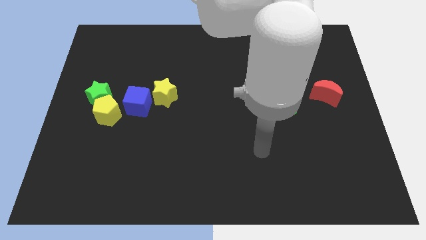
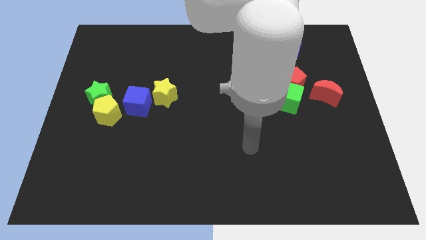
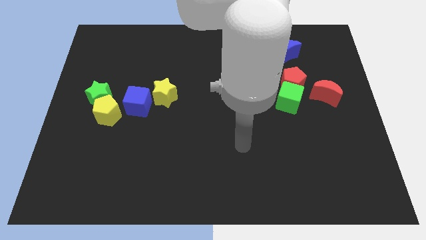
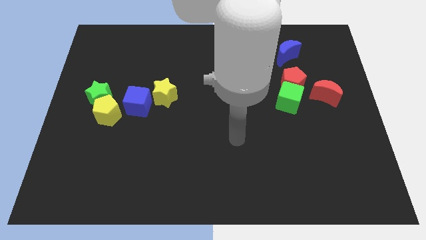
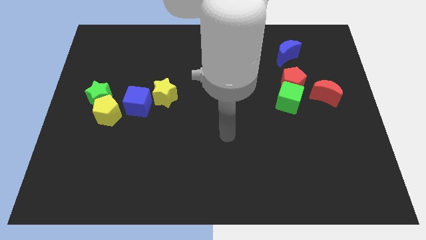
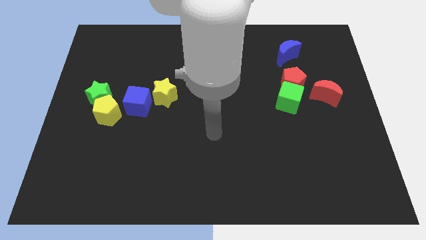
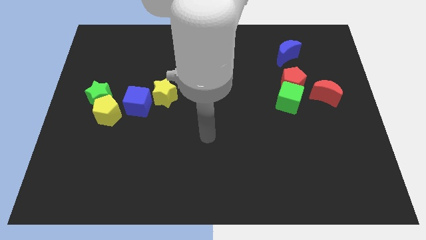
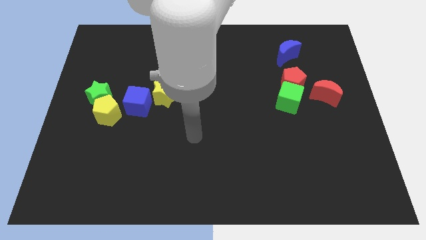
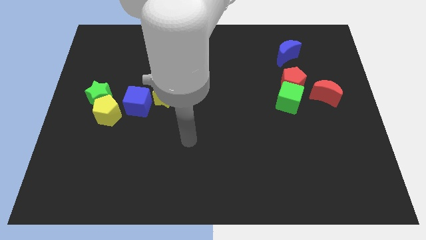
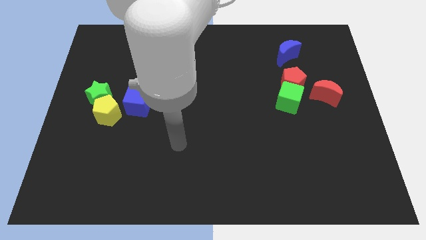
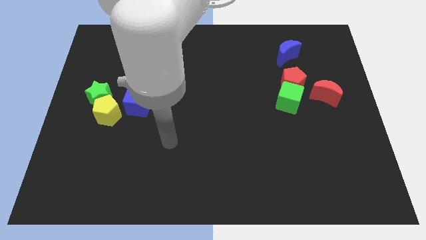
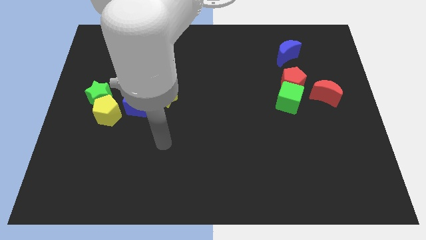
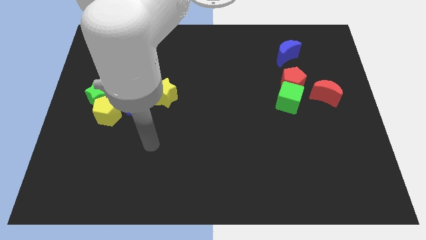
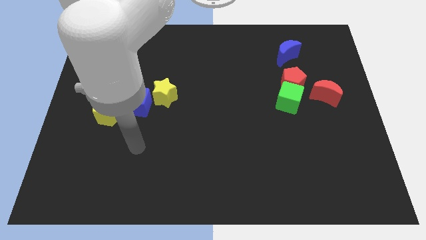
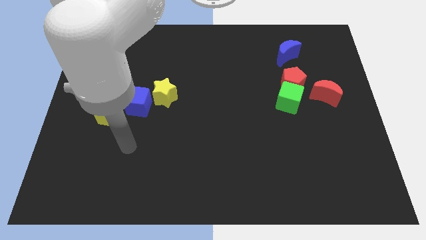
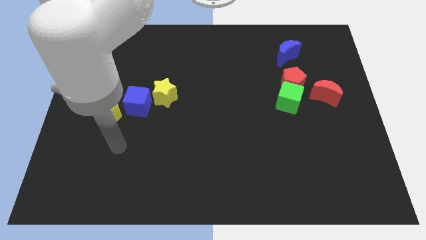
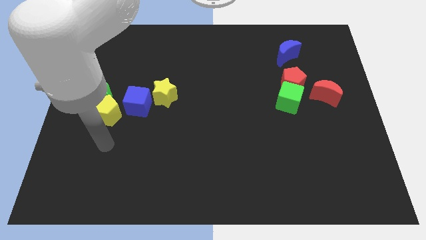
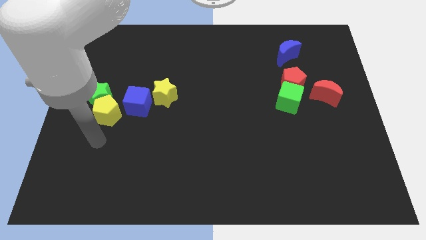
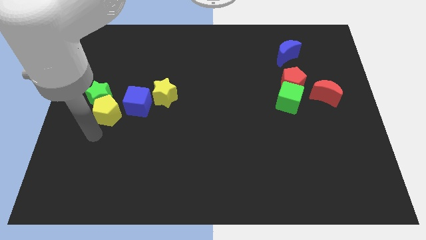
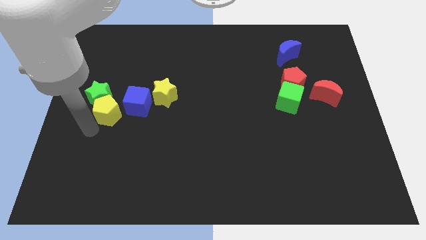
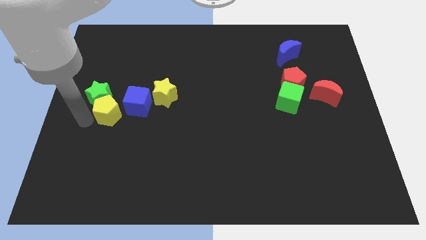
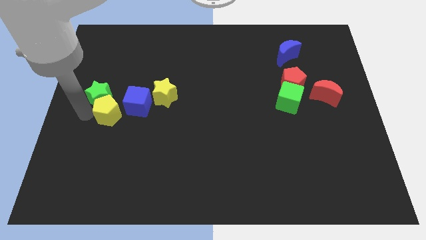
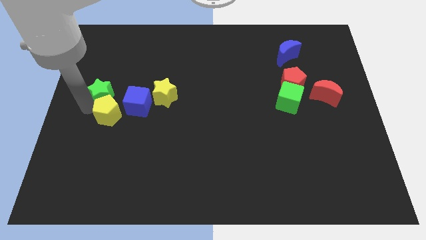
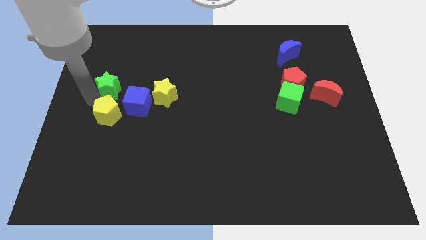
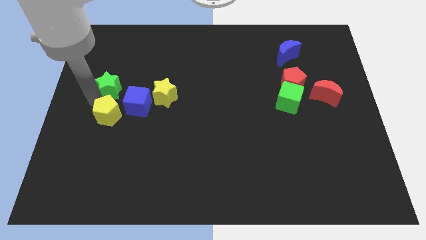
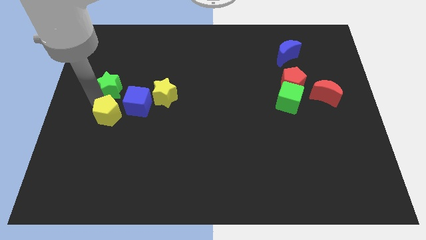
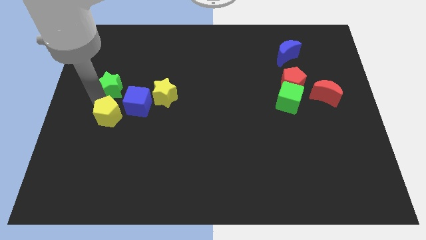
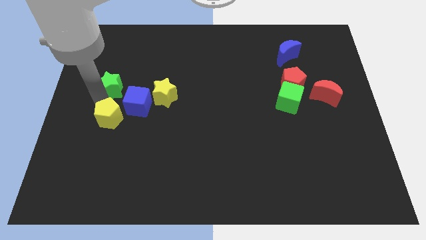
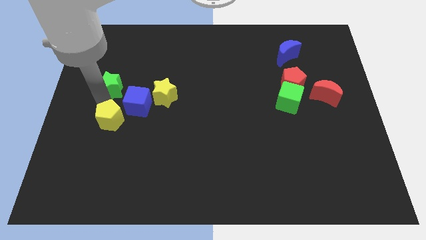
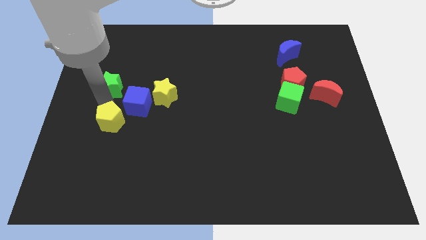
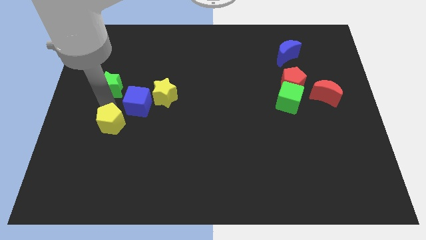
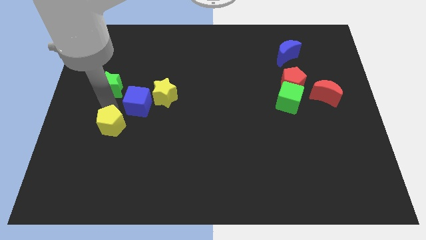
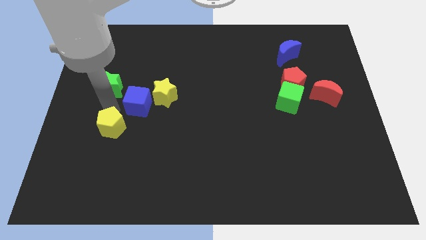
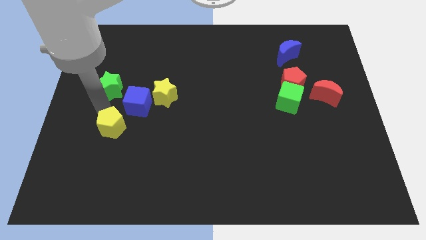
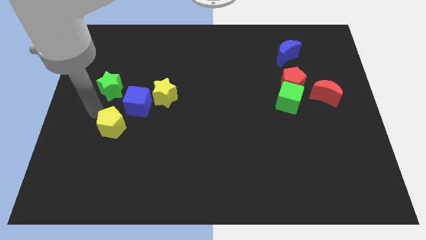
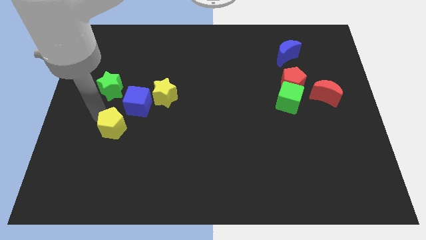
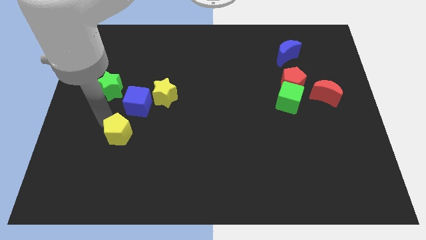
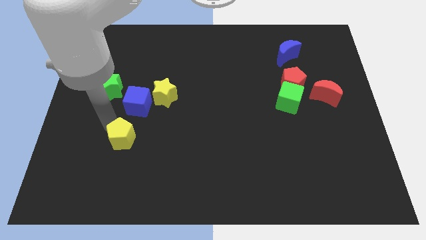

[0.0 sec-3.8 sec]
slide the yellow pentagon a little downwards and right diagonally

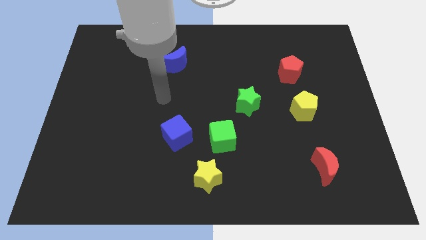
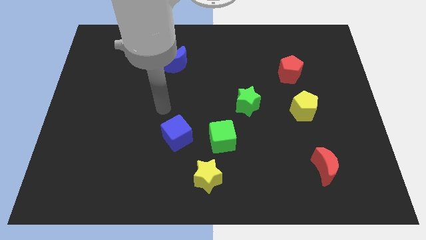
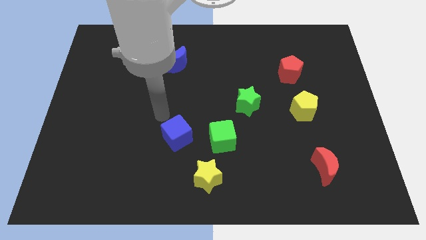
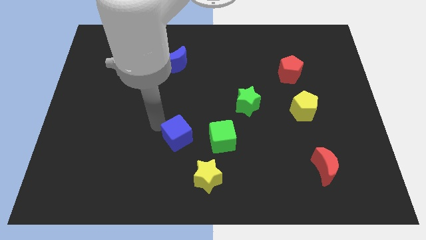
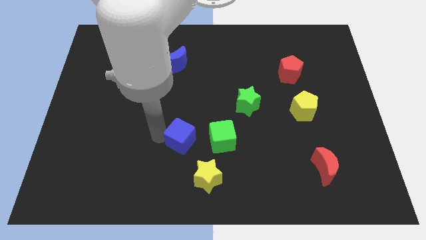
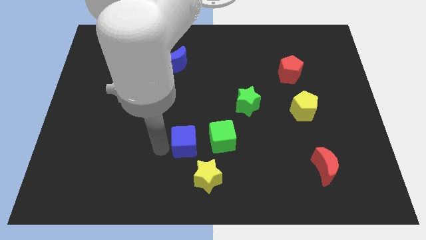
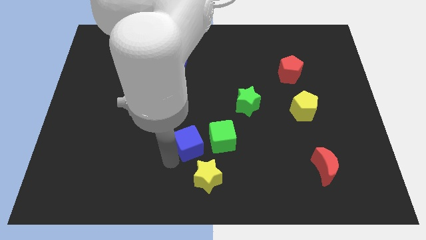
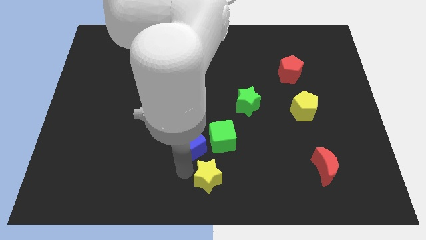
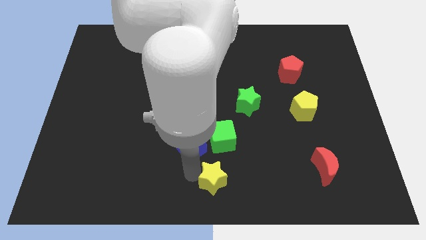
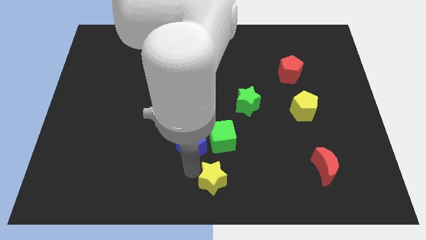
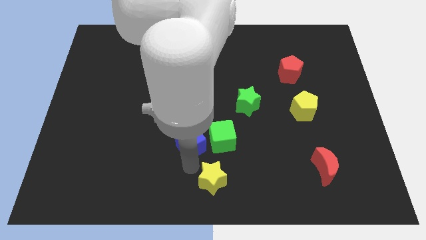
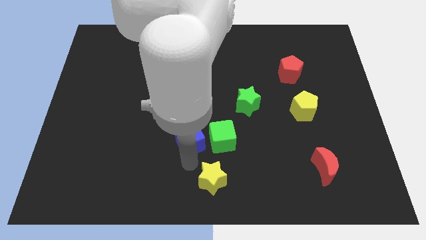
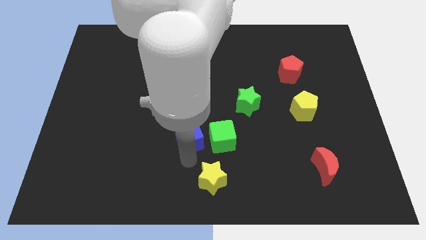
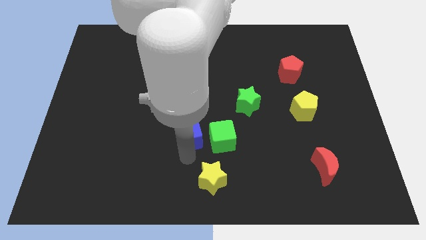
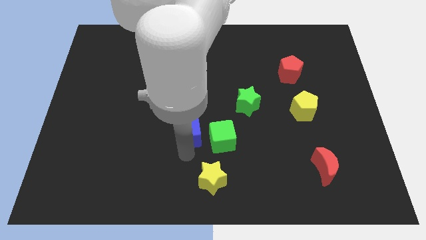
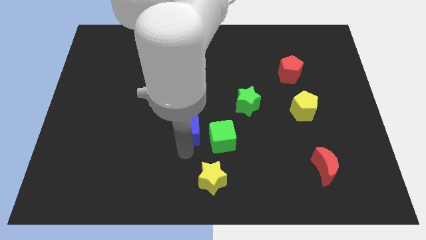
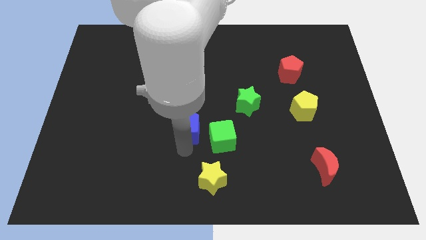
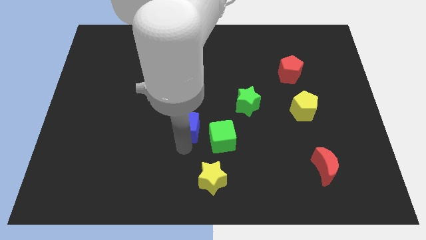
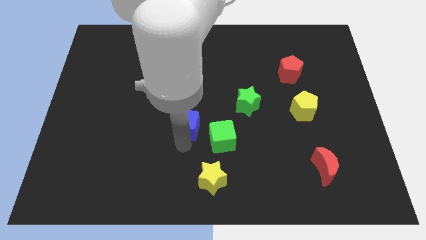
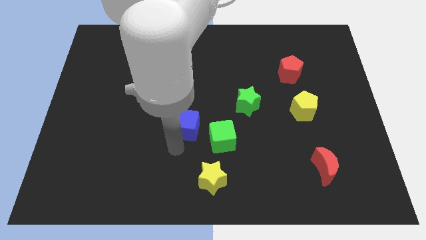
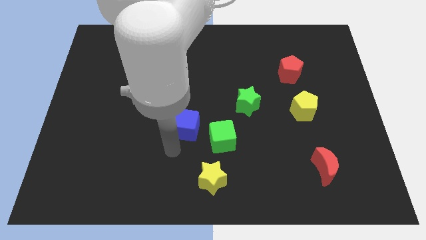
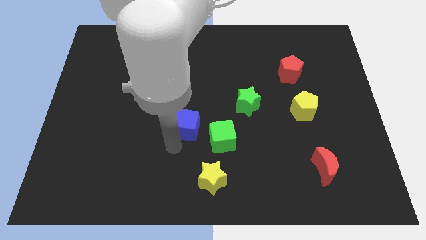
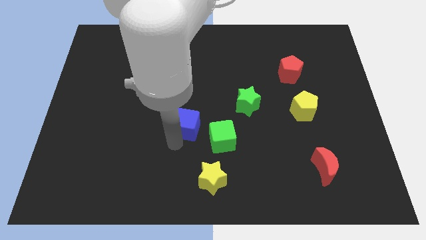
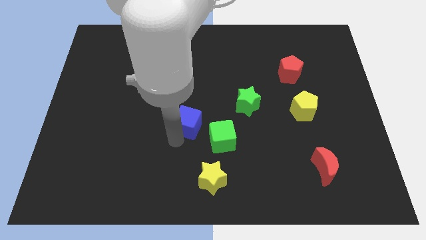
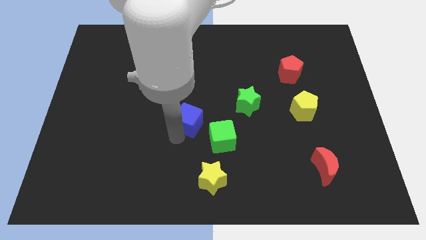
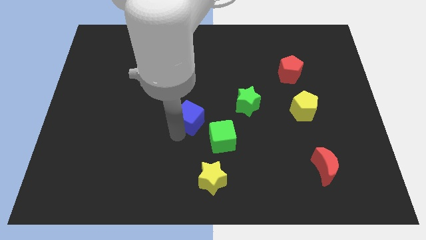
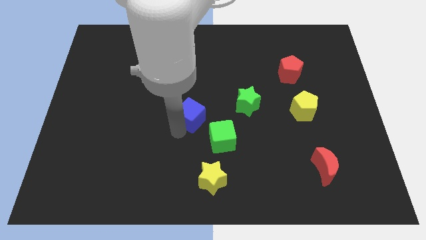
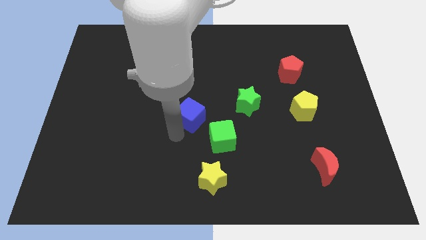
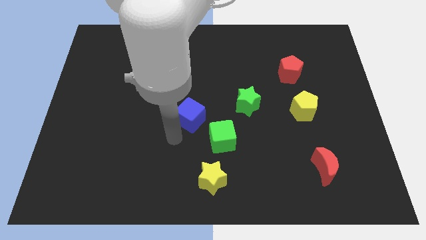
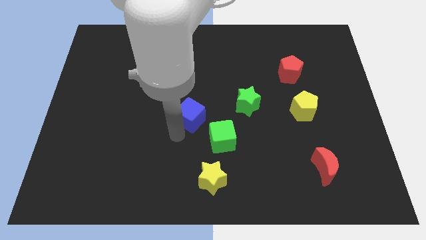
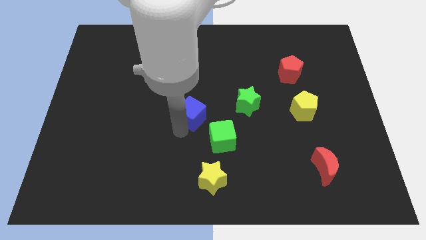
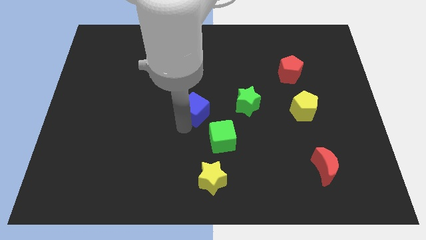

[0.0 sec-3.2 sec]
push the blue cube a bit diagonally up and right

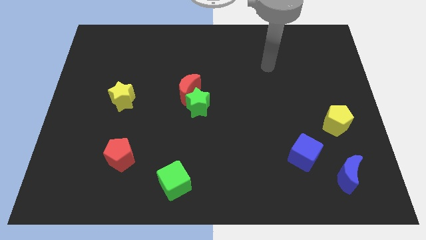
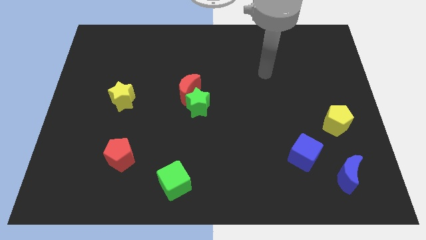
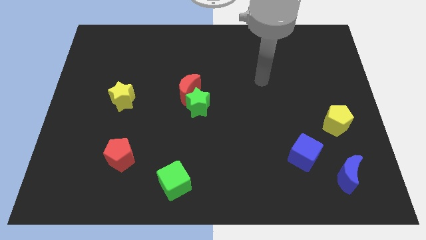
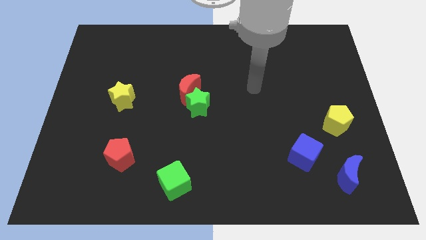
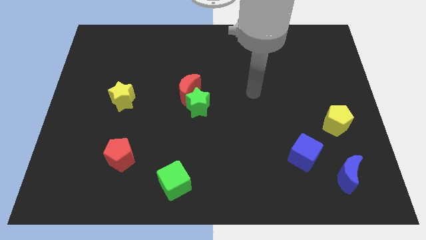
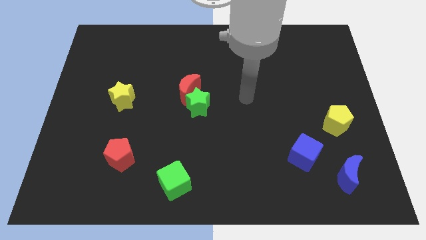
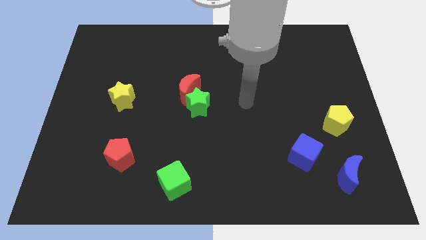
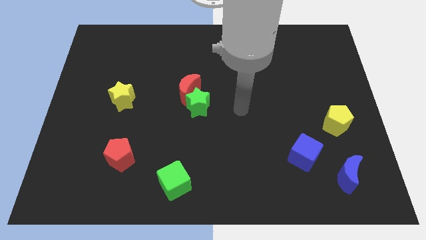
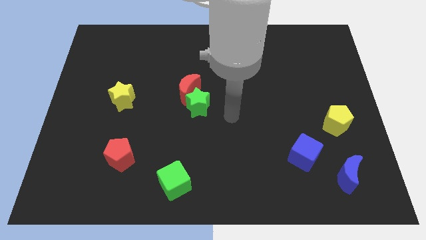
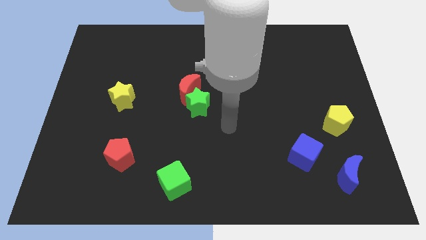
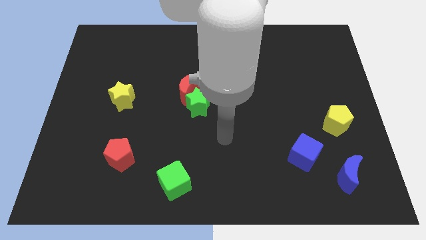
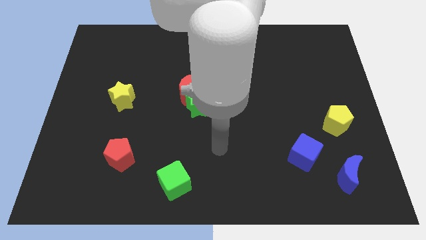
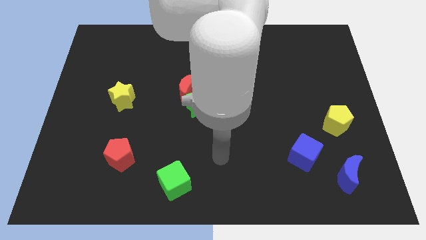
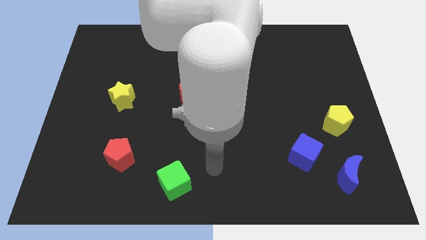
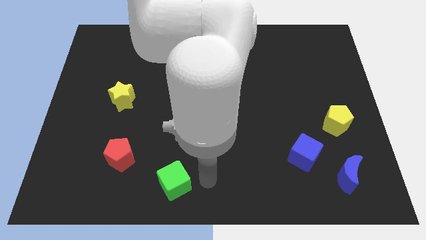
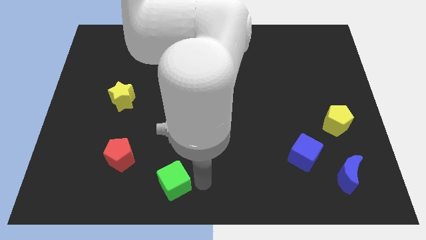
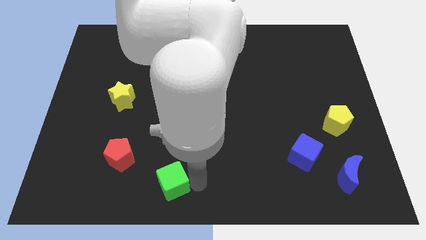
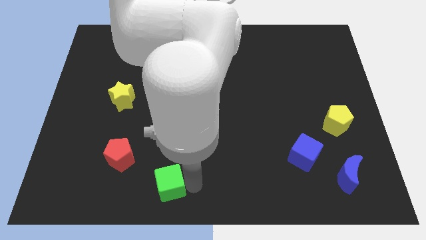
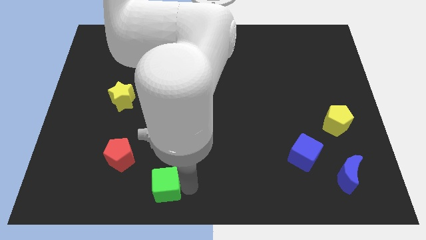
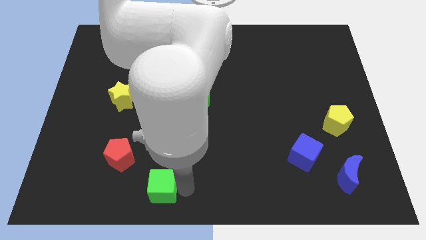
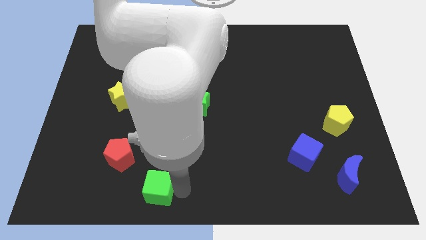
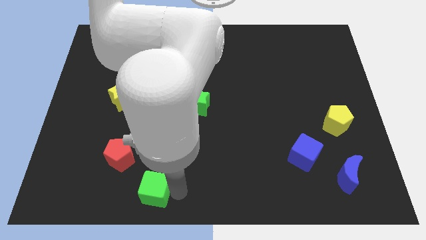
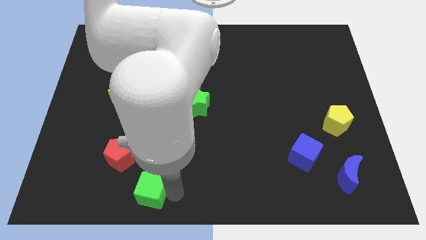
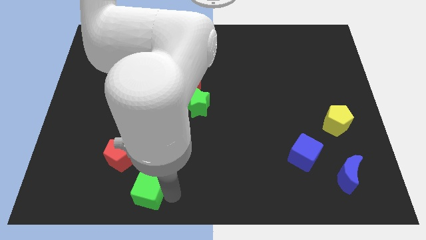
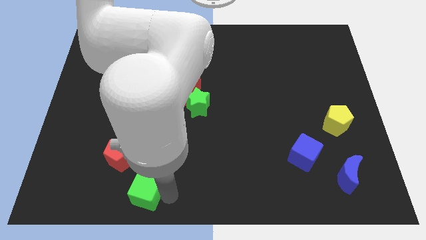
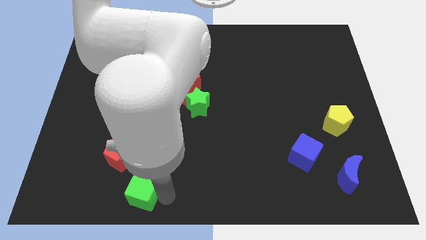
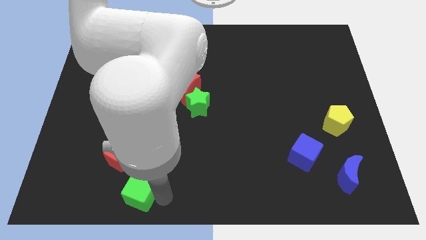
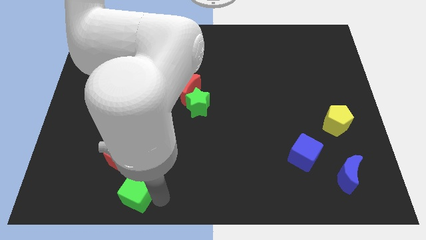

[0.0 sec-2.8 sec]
slightly move the green cube to the left
